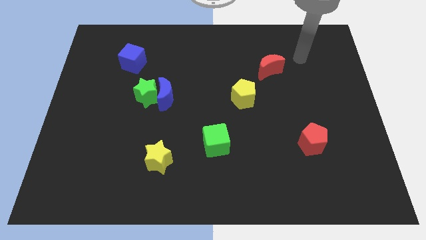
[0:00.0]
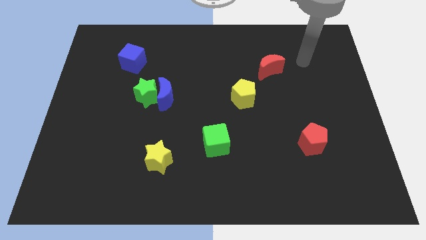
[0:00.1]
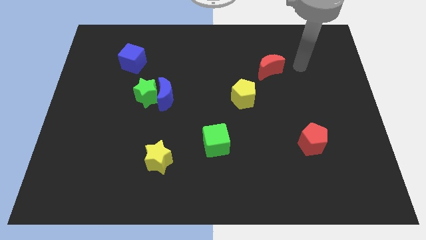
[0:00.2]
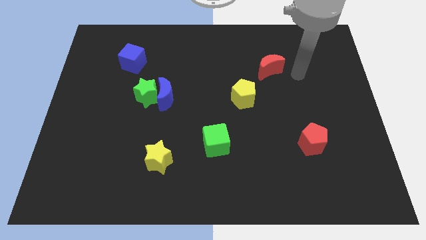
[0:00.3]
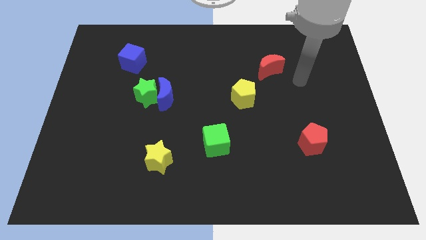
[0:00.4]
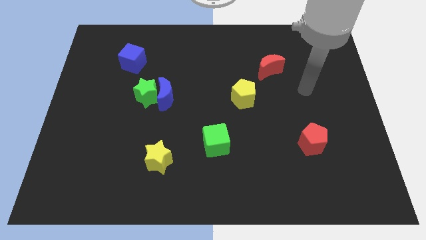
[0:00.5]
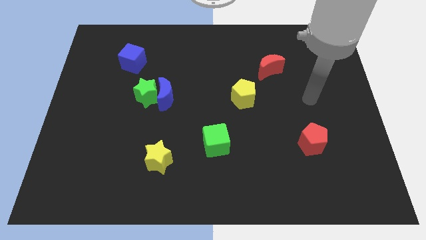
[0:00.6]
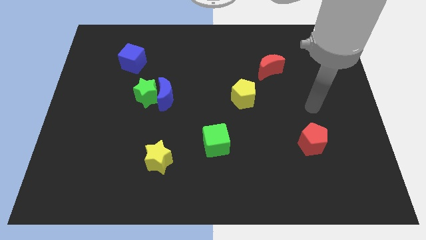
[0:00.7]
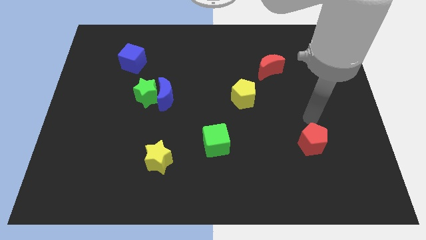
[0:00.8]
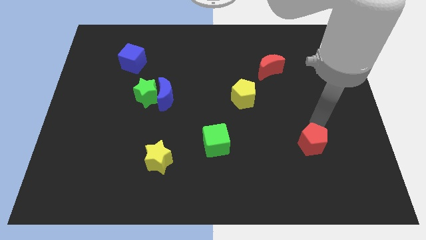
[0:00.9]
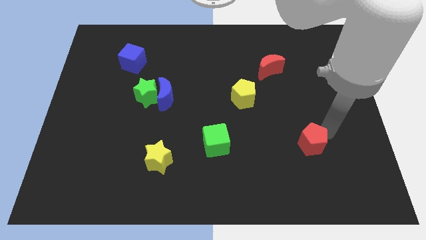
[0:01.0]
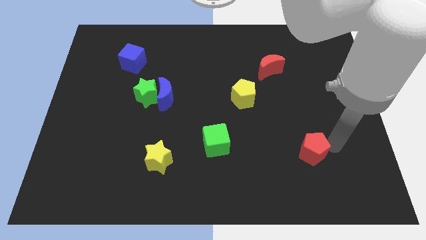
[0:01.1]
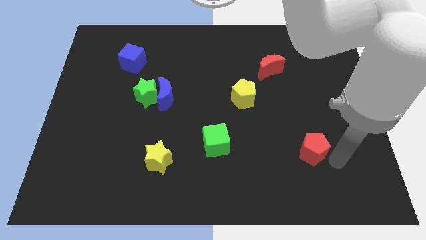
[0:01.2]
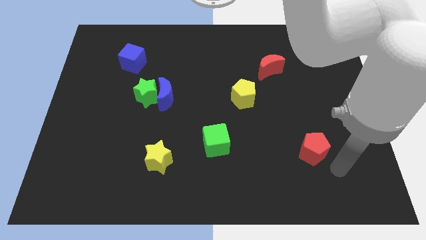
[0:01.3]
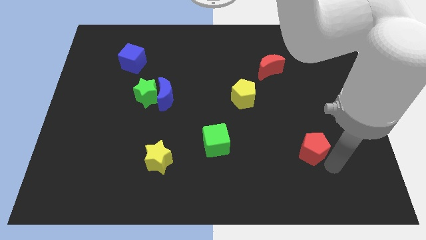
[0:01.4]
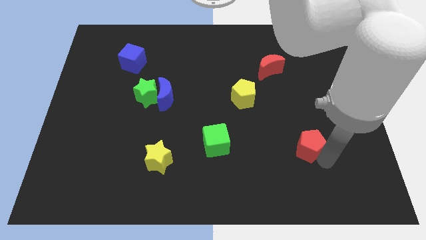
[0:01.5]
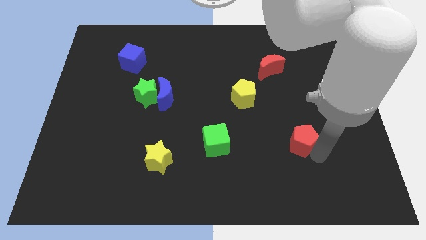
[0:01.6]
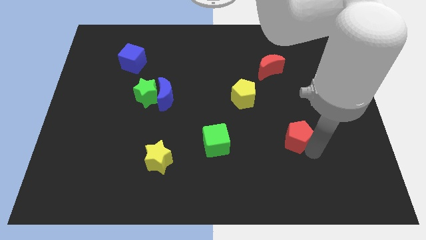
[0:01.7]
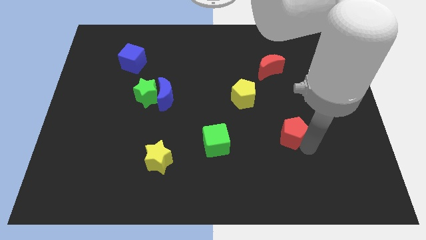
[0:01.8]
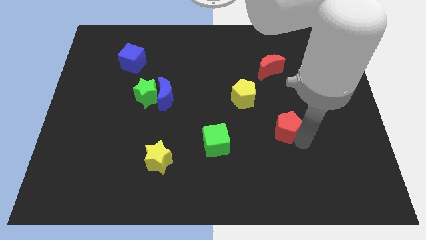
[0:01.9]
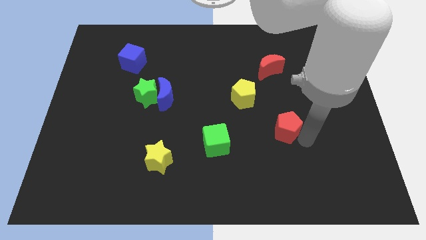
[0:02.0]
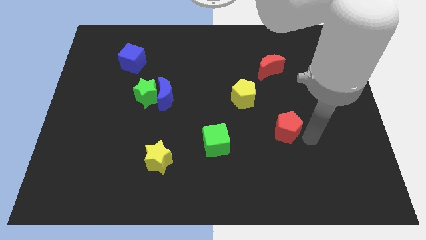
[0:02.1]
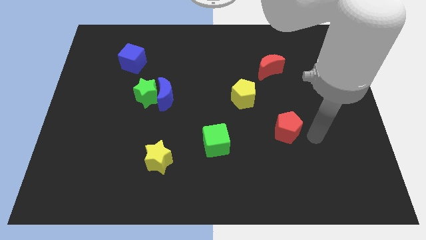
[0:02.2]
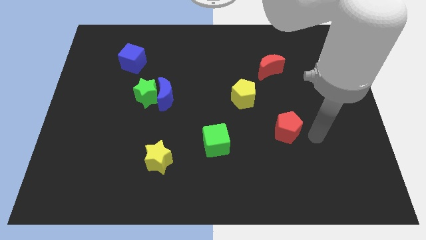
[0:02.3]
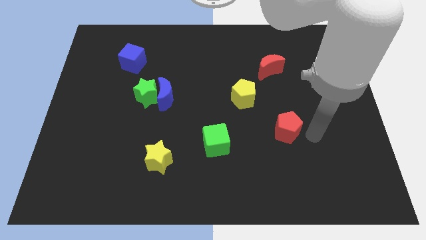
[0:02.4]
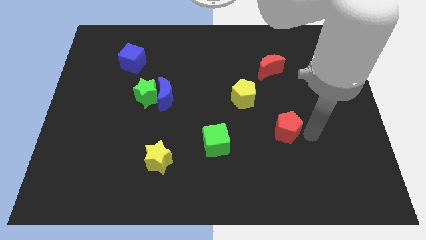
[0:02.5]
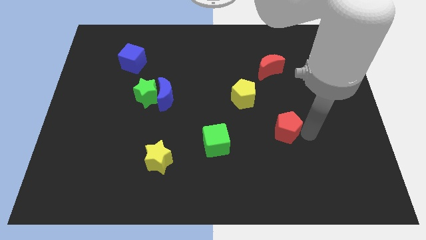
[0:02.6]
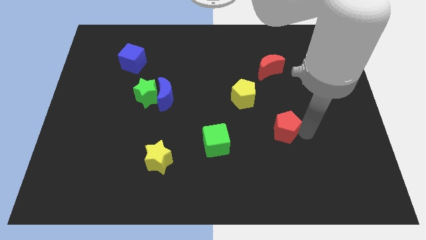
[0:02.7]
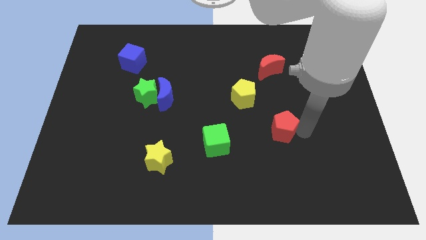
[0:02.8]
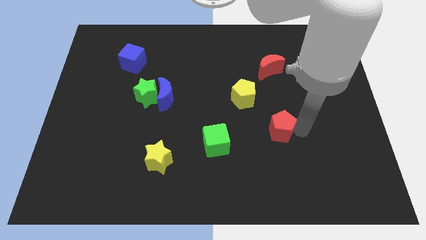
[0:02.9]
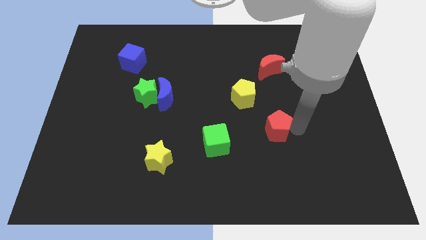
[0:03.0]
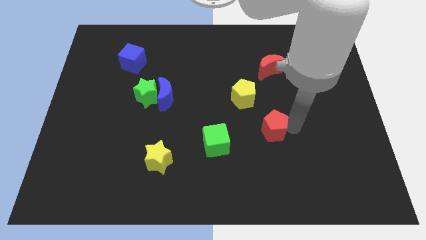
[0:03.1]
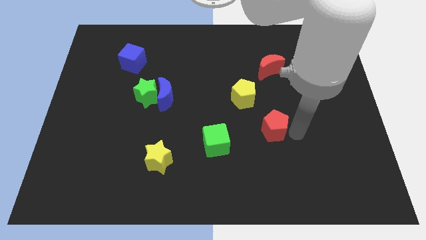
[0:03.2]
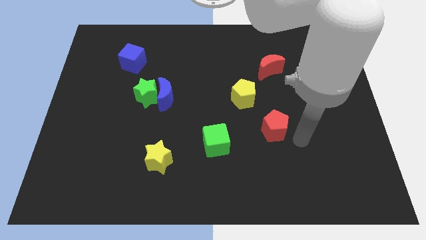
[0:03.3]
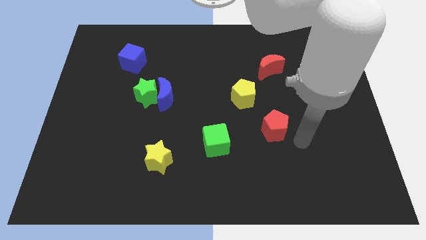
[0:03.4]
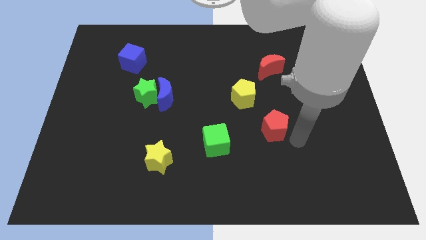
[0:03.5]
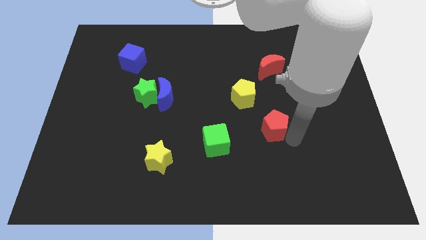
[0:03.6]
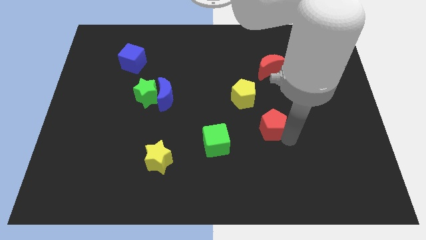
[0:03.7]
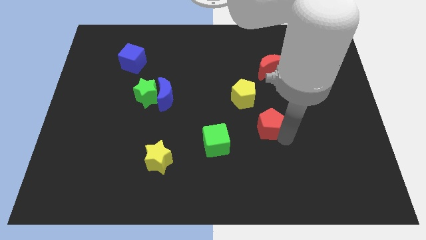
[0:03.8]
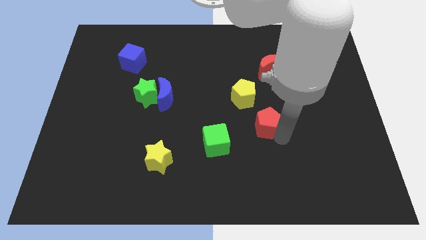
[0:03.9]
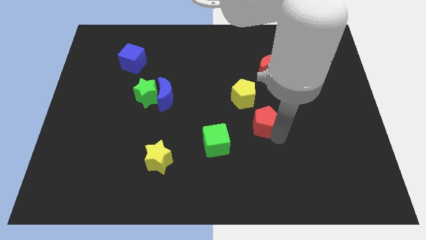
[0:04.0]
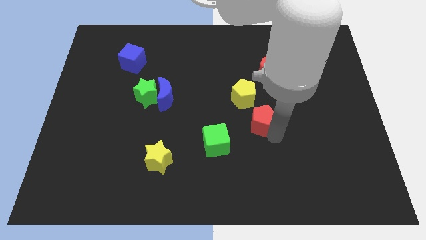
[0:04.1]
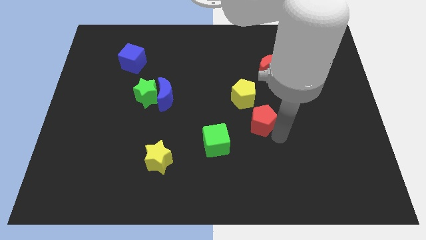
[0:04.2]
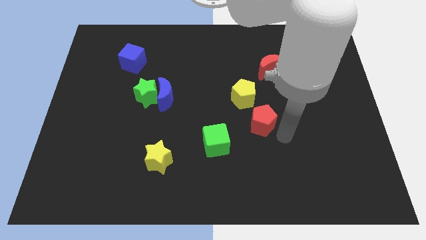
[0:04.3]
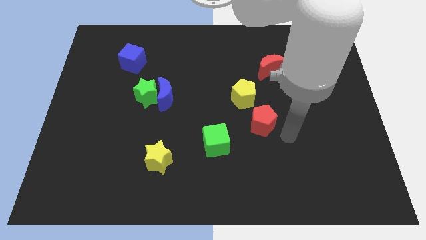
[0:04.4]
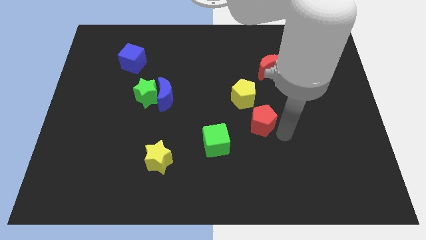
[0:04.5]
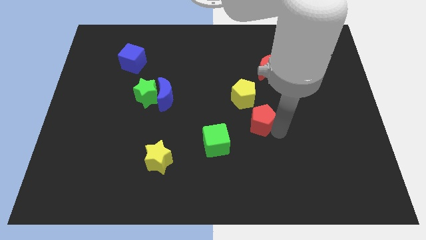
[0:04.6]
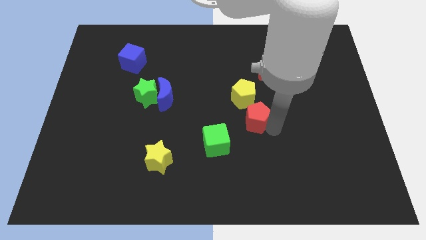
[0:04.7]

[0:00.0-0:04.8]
put the red pentagon to the center

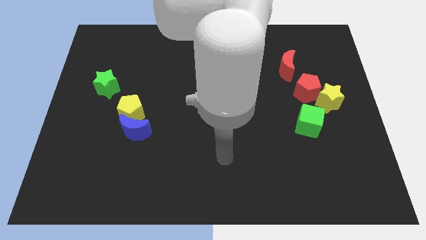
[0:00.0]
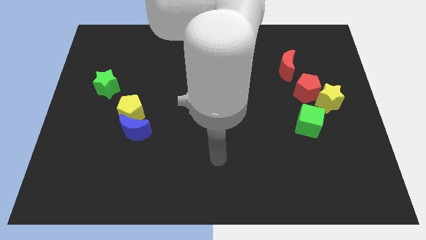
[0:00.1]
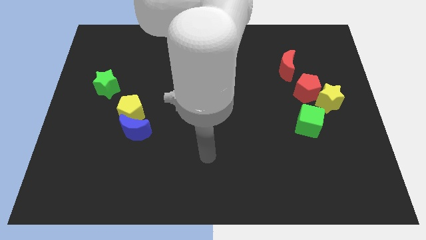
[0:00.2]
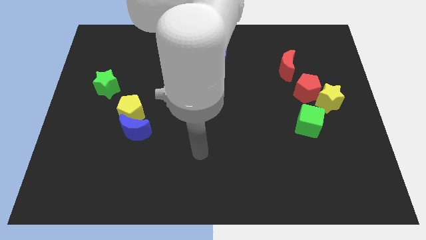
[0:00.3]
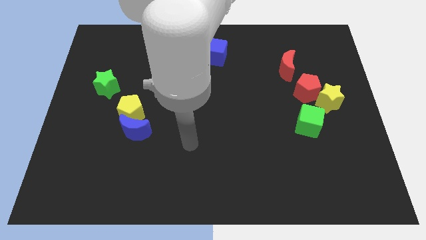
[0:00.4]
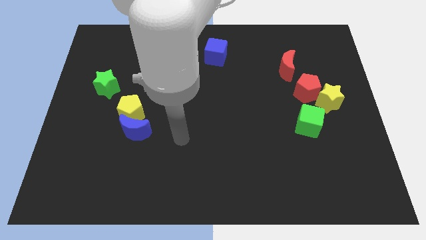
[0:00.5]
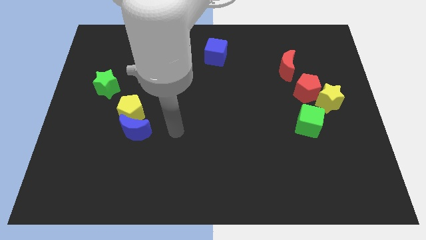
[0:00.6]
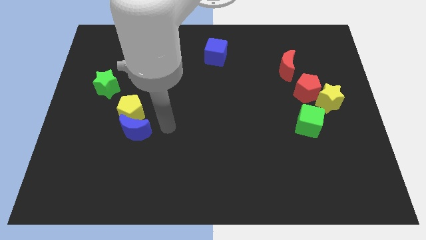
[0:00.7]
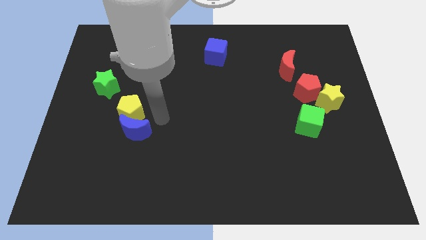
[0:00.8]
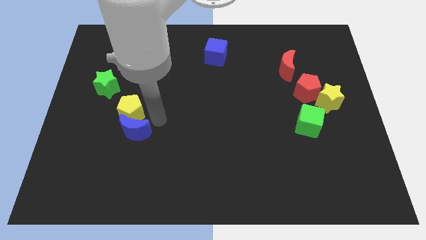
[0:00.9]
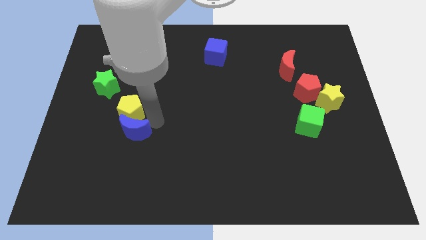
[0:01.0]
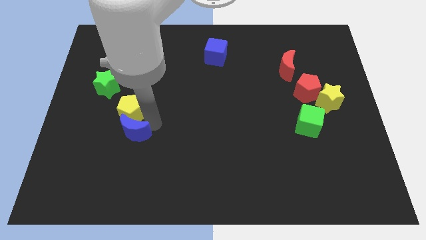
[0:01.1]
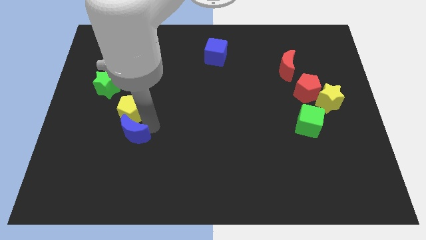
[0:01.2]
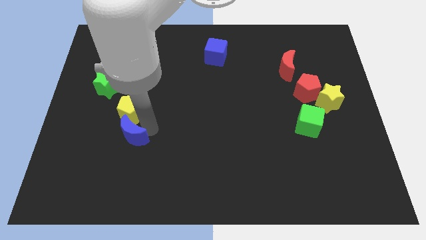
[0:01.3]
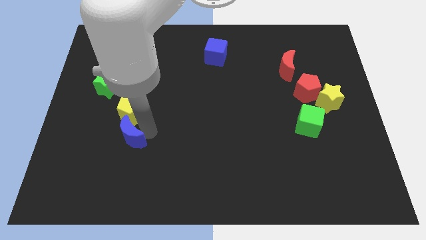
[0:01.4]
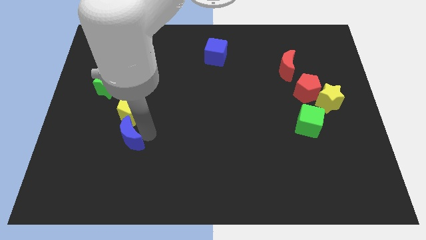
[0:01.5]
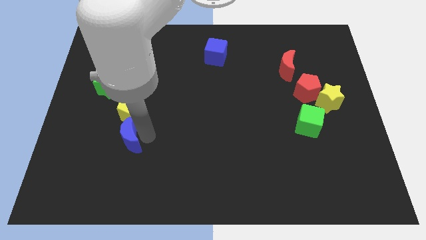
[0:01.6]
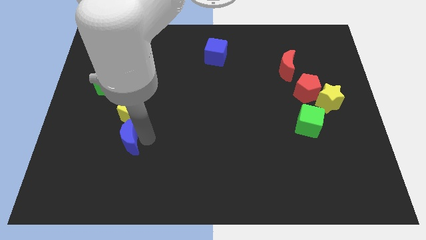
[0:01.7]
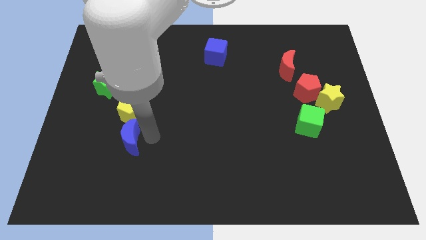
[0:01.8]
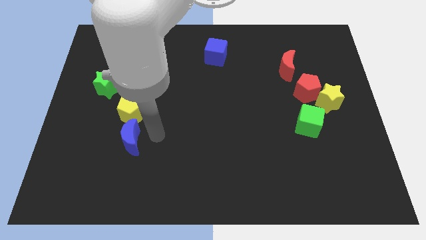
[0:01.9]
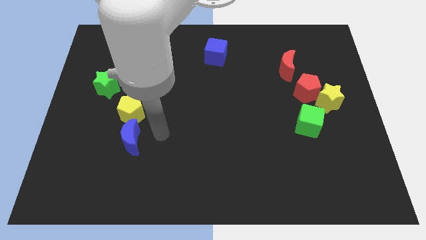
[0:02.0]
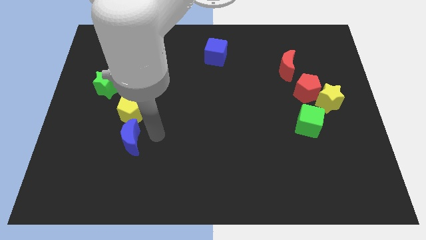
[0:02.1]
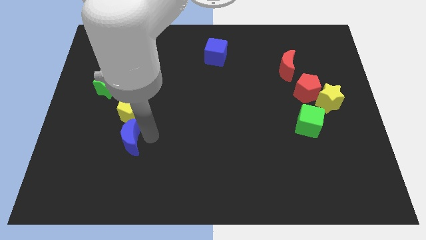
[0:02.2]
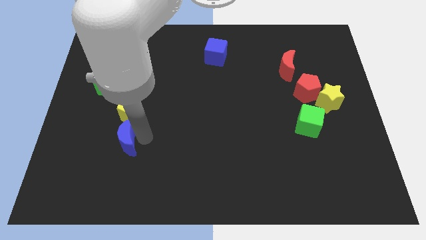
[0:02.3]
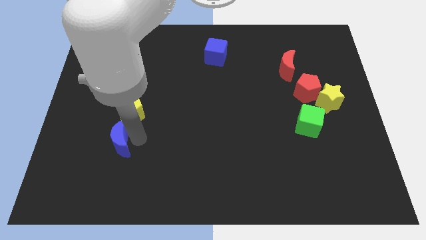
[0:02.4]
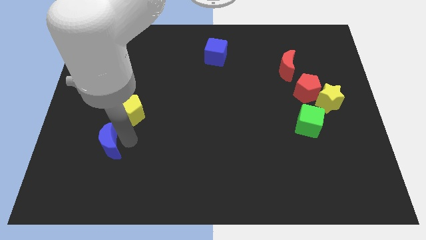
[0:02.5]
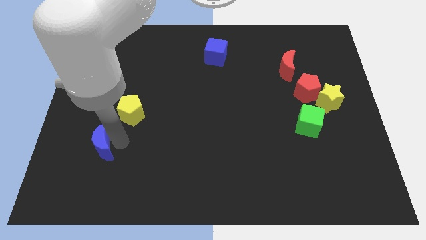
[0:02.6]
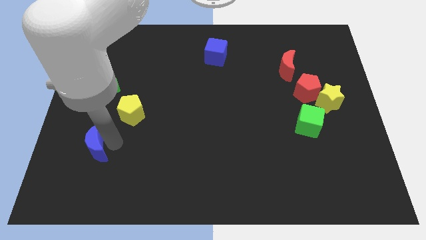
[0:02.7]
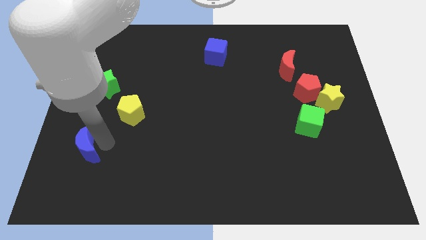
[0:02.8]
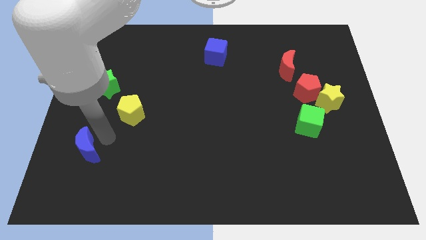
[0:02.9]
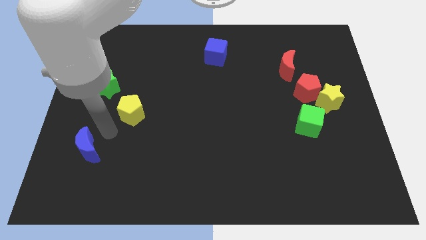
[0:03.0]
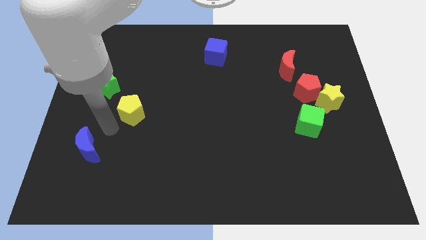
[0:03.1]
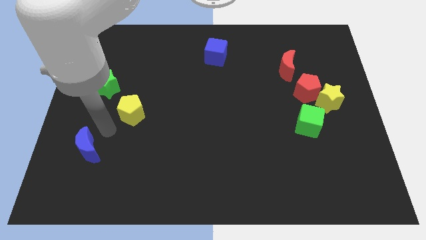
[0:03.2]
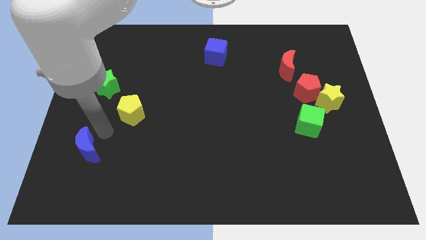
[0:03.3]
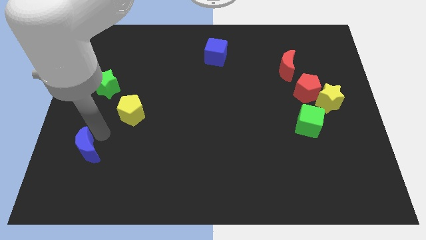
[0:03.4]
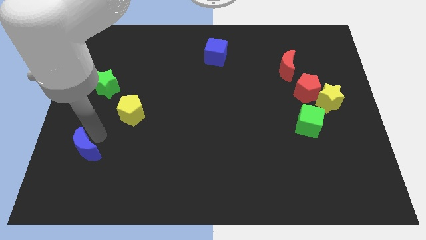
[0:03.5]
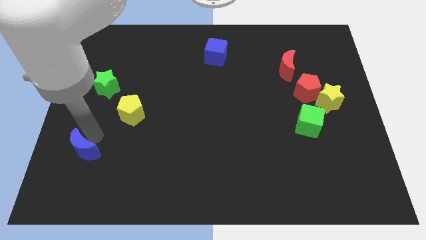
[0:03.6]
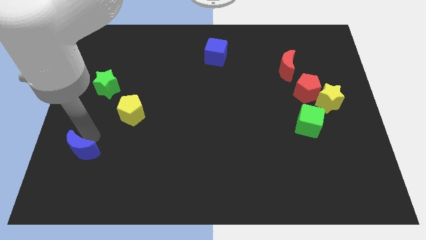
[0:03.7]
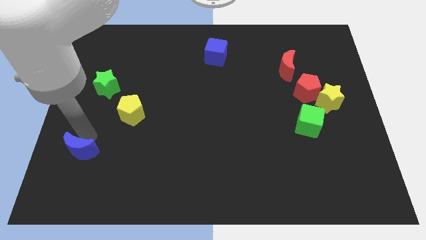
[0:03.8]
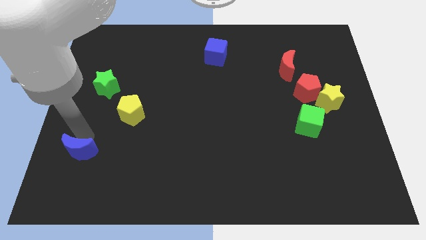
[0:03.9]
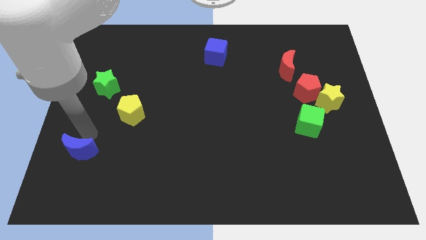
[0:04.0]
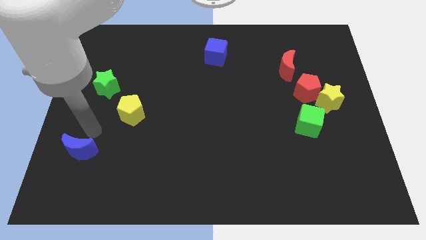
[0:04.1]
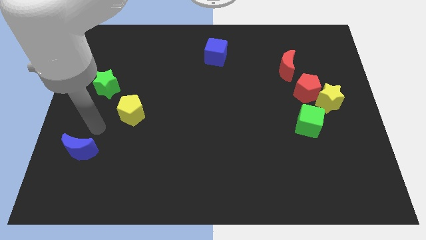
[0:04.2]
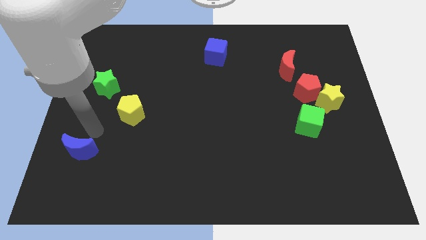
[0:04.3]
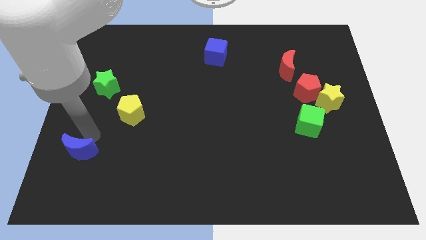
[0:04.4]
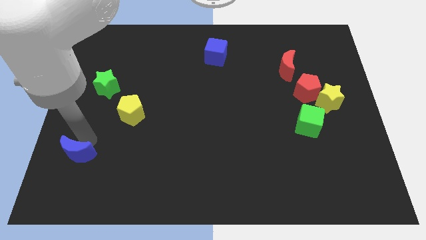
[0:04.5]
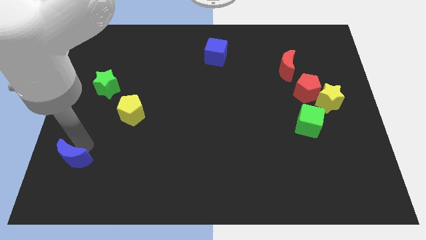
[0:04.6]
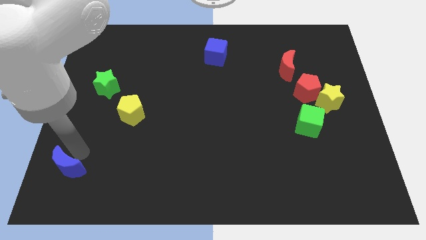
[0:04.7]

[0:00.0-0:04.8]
move the blue moon to the bottom left
